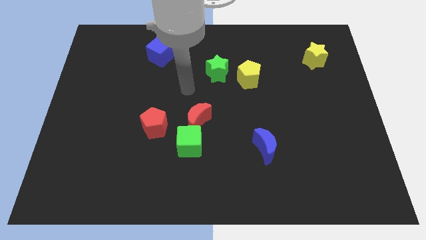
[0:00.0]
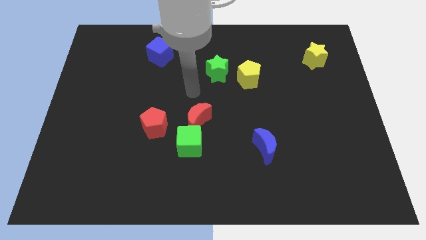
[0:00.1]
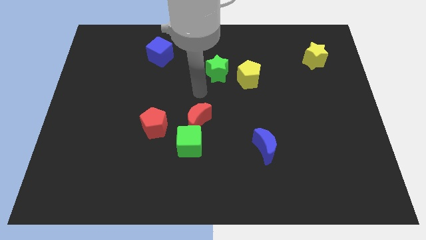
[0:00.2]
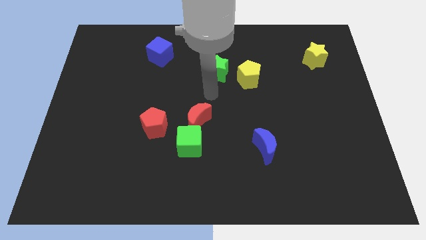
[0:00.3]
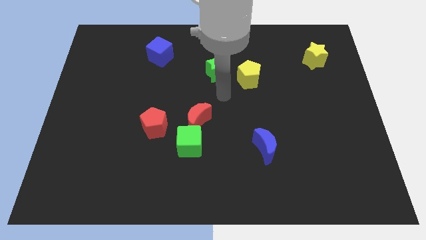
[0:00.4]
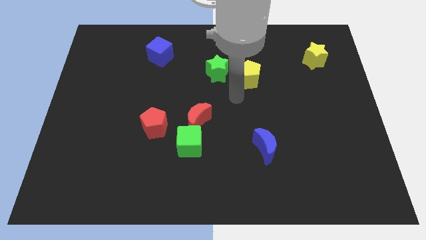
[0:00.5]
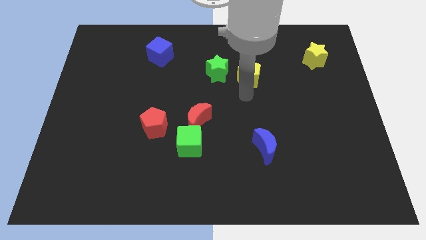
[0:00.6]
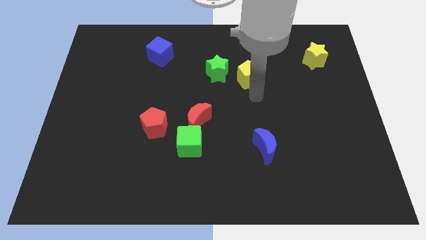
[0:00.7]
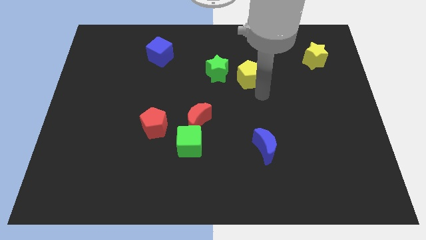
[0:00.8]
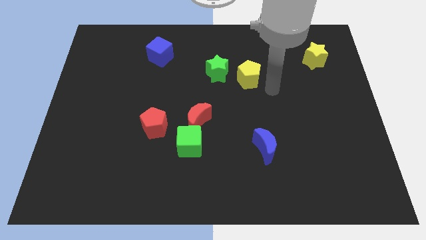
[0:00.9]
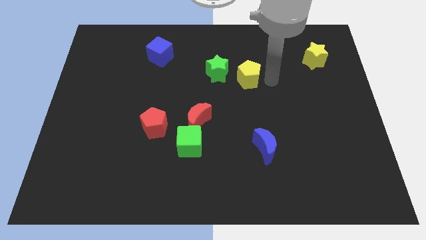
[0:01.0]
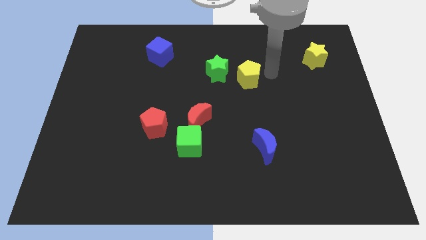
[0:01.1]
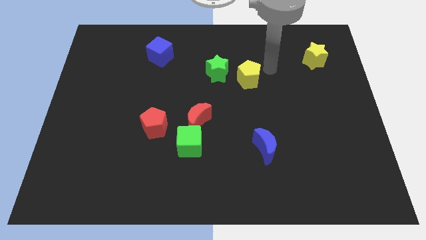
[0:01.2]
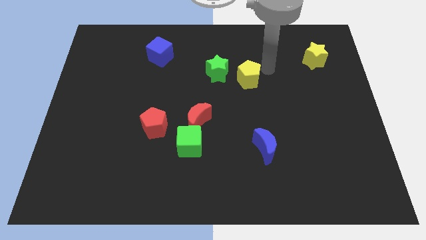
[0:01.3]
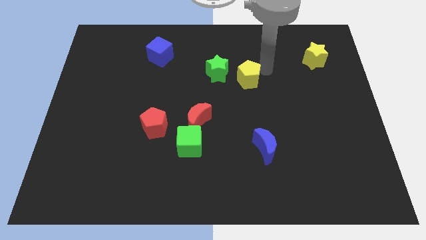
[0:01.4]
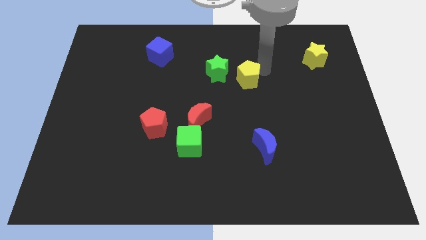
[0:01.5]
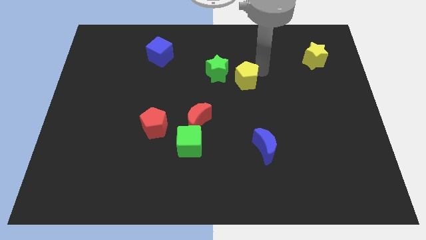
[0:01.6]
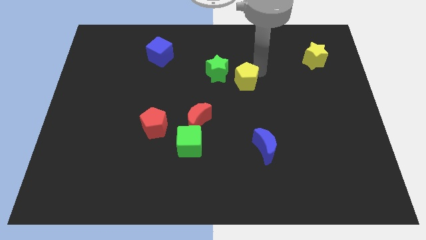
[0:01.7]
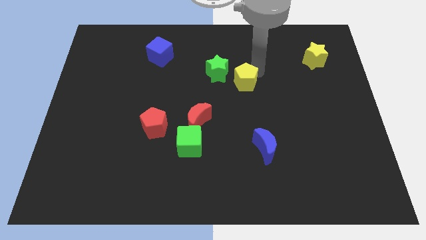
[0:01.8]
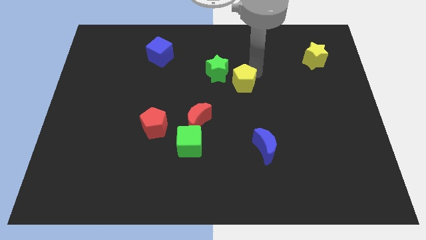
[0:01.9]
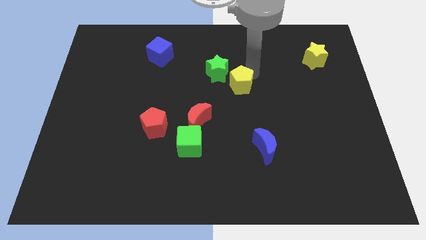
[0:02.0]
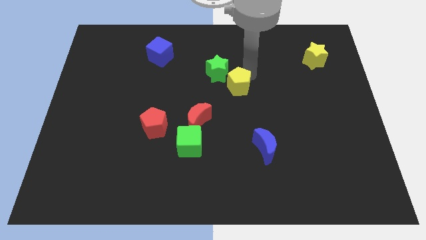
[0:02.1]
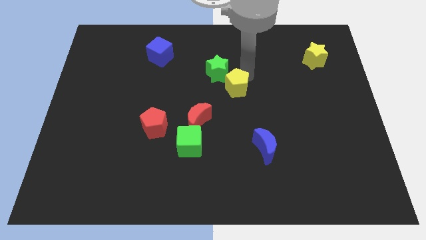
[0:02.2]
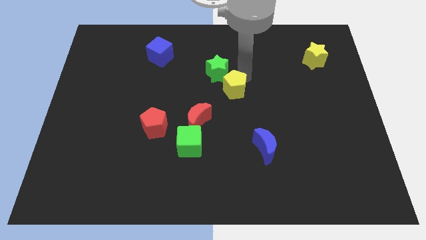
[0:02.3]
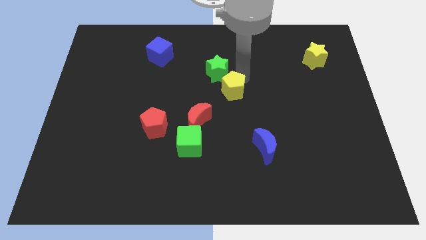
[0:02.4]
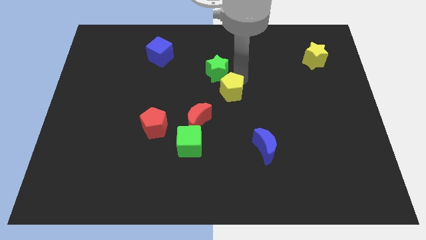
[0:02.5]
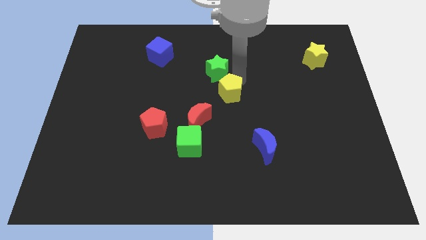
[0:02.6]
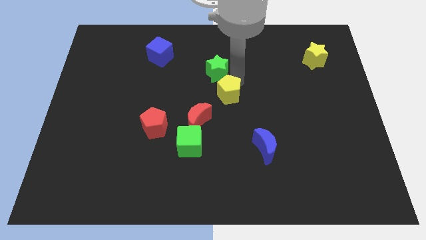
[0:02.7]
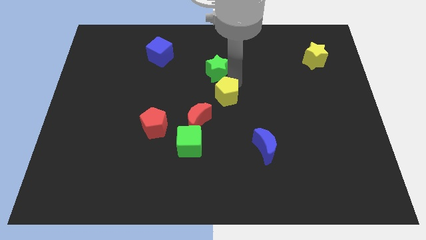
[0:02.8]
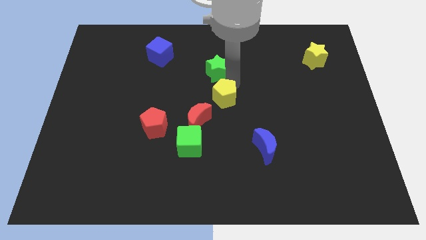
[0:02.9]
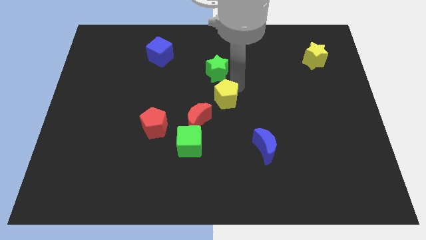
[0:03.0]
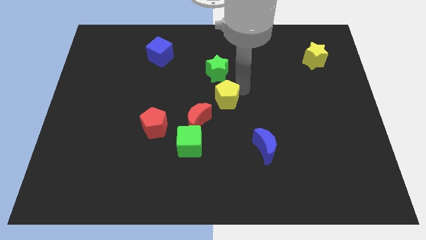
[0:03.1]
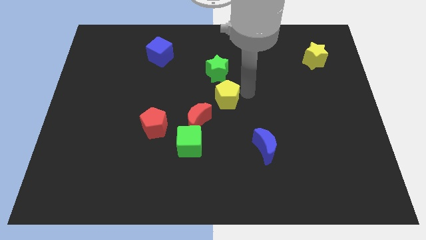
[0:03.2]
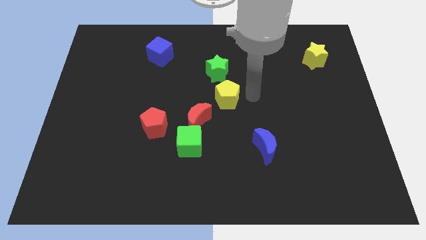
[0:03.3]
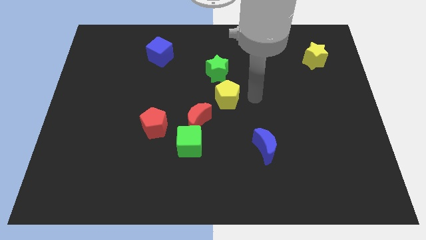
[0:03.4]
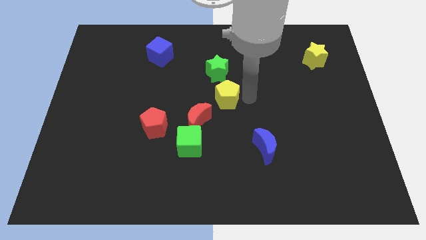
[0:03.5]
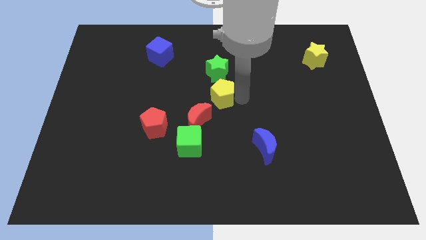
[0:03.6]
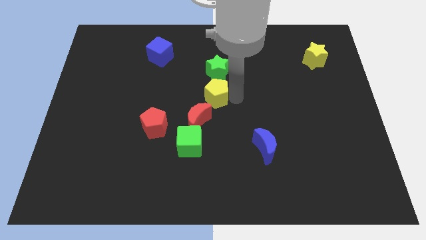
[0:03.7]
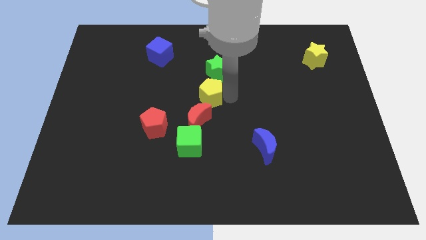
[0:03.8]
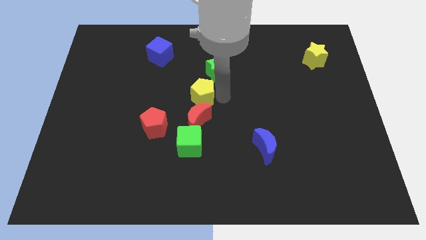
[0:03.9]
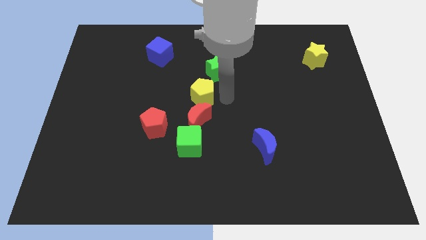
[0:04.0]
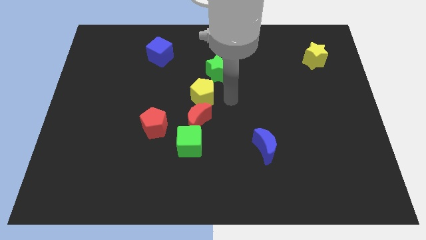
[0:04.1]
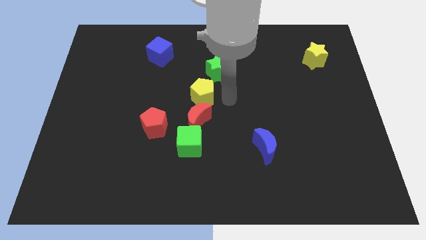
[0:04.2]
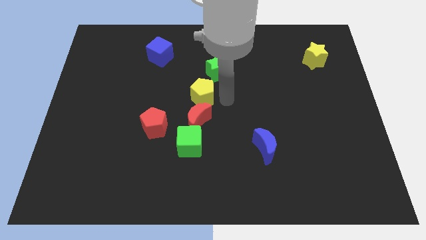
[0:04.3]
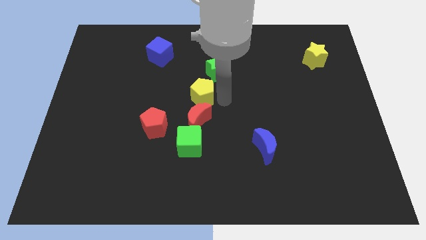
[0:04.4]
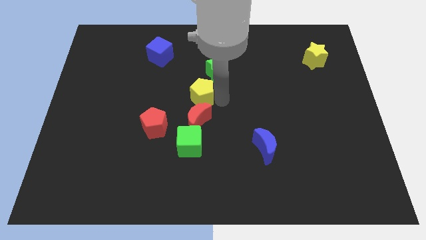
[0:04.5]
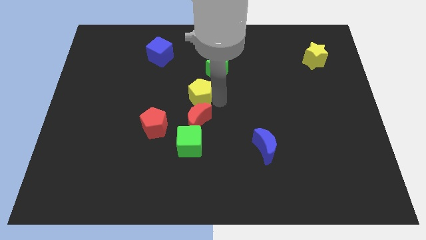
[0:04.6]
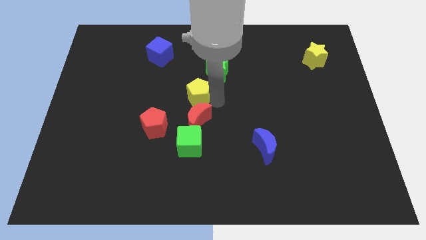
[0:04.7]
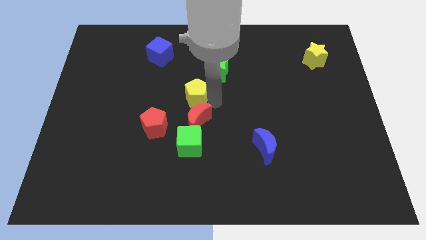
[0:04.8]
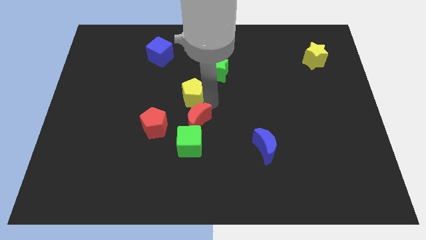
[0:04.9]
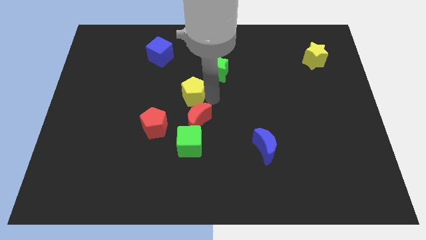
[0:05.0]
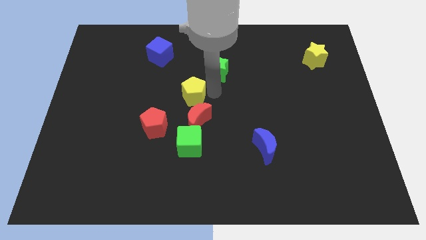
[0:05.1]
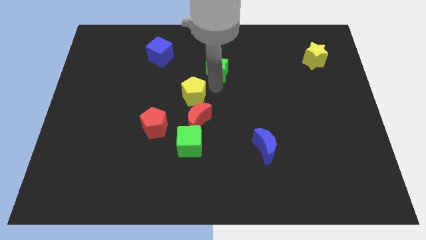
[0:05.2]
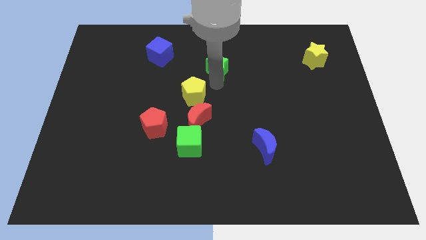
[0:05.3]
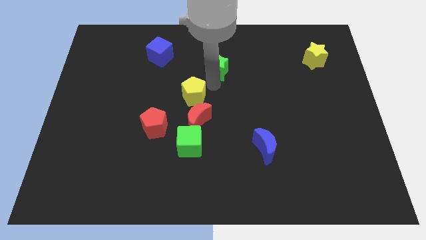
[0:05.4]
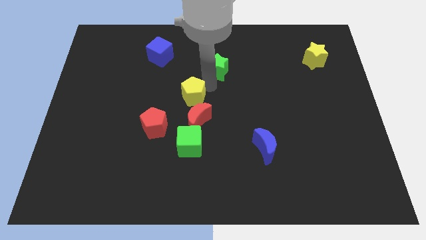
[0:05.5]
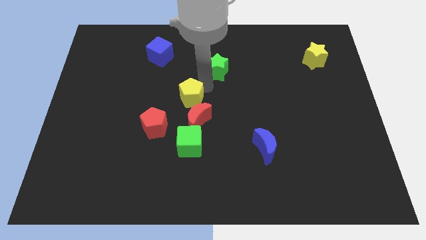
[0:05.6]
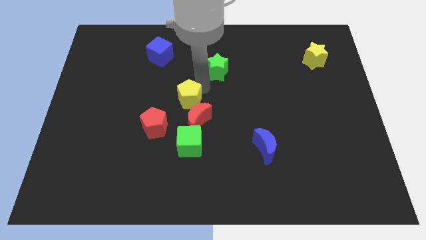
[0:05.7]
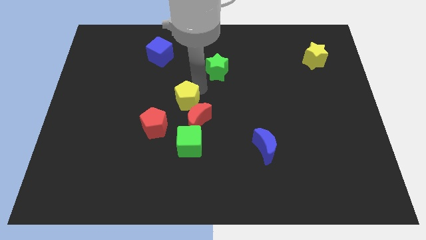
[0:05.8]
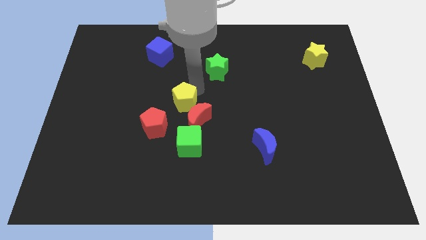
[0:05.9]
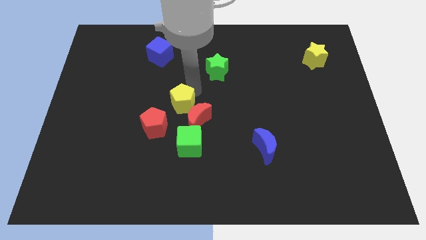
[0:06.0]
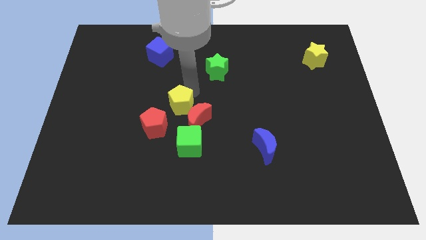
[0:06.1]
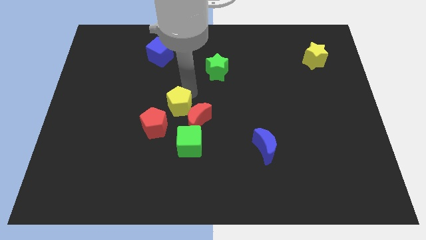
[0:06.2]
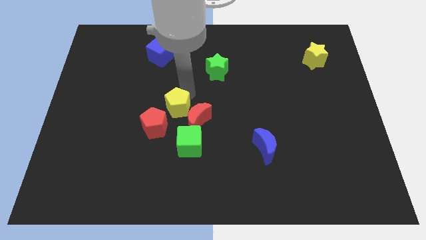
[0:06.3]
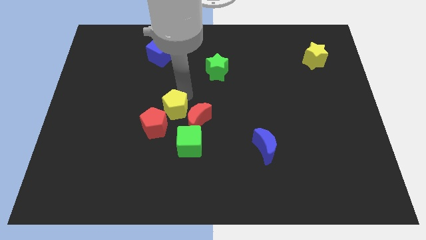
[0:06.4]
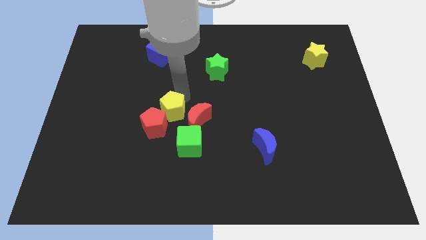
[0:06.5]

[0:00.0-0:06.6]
move the yellow pentagon to the red pentagon

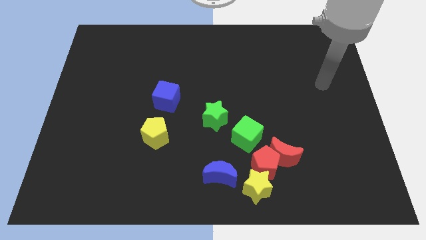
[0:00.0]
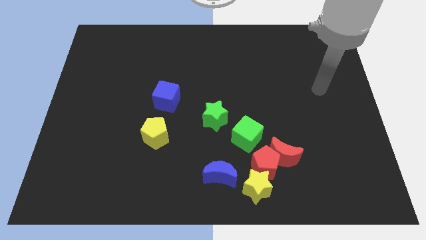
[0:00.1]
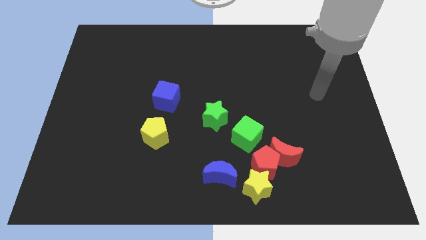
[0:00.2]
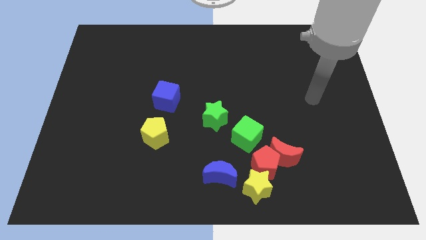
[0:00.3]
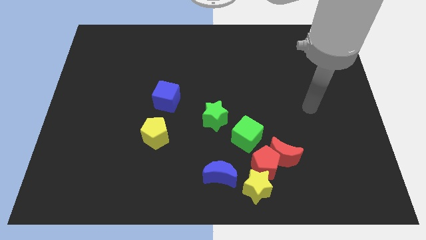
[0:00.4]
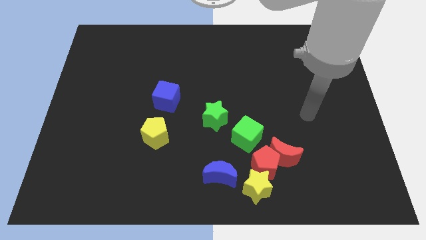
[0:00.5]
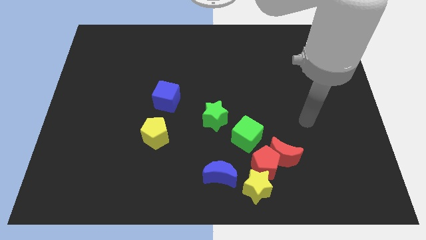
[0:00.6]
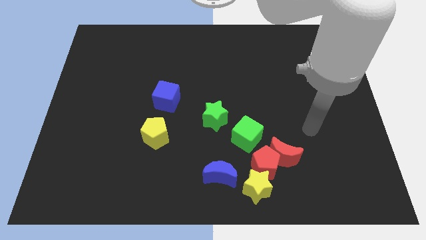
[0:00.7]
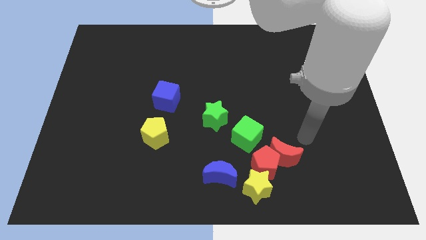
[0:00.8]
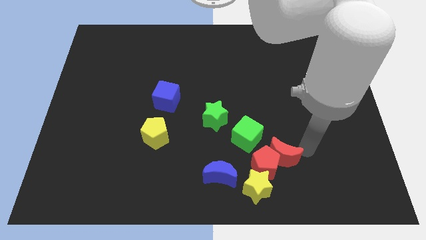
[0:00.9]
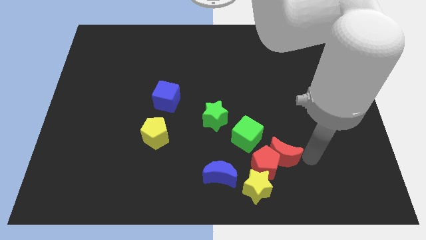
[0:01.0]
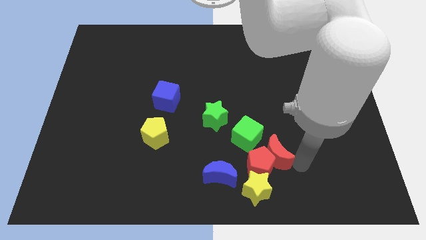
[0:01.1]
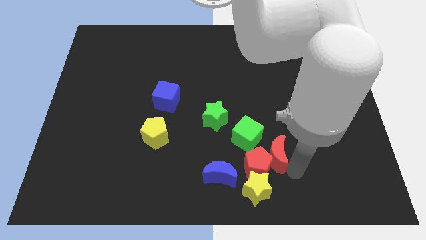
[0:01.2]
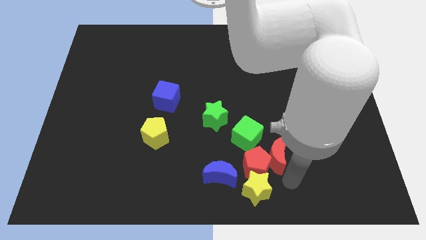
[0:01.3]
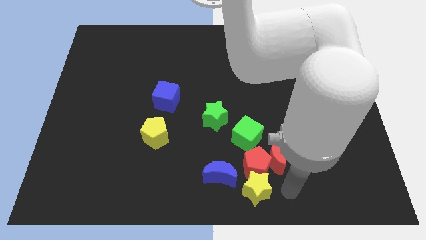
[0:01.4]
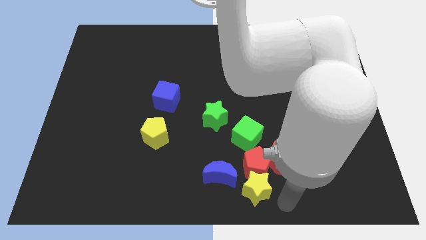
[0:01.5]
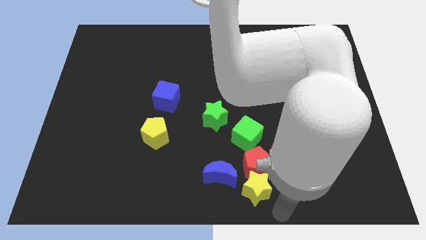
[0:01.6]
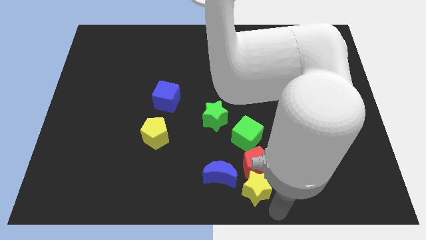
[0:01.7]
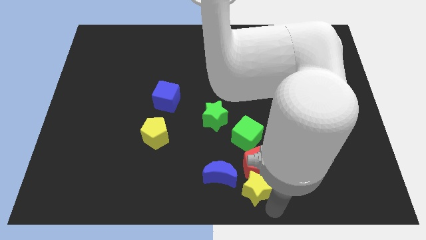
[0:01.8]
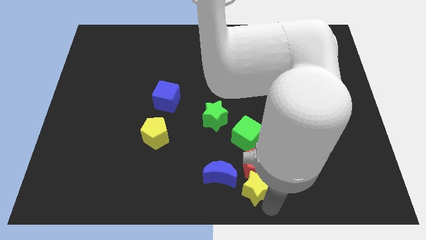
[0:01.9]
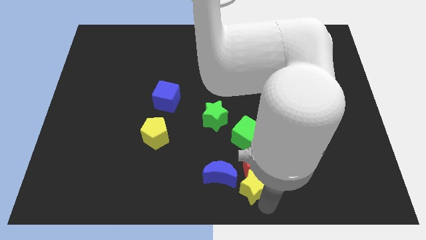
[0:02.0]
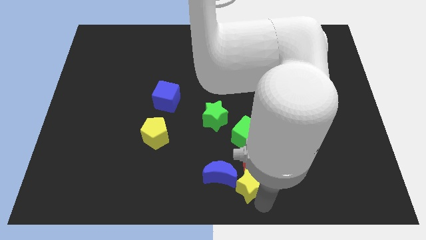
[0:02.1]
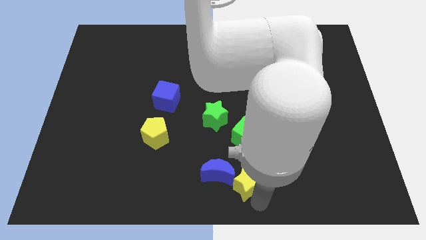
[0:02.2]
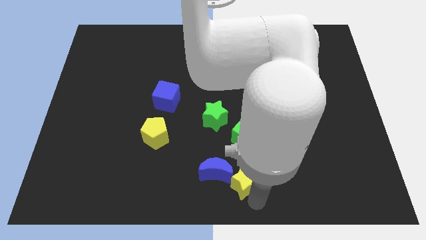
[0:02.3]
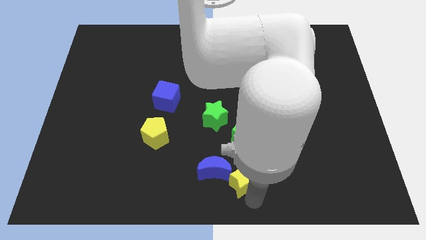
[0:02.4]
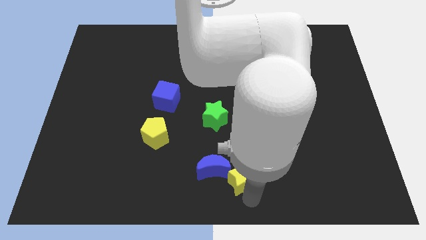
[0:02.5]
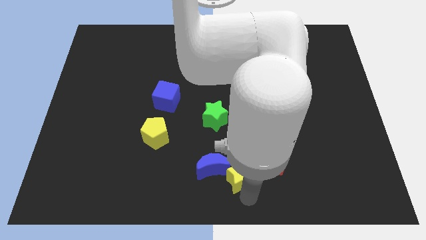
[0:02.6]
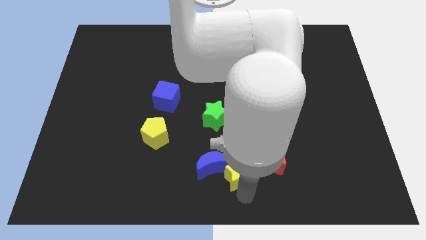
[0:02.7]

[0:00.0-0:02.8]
slide the yellow star close to the blue moon
